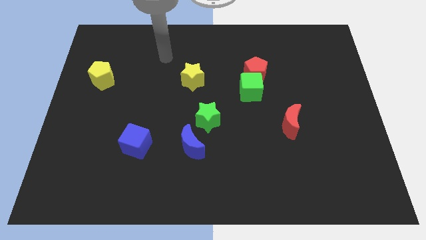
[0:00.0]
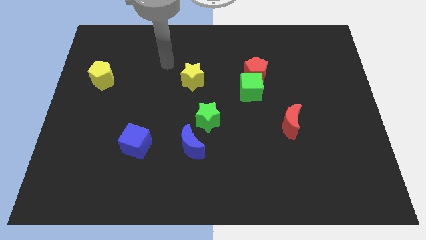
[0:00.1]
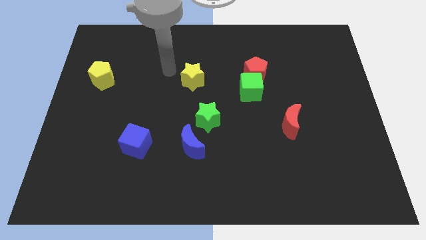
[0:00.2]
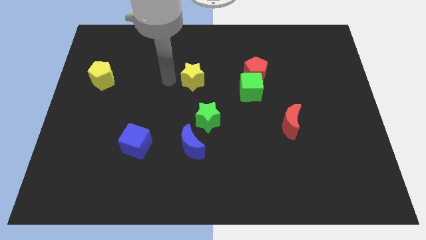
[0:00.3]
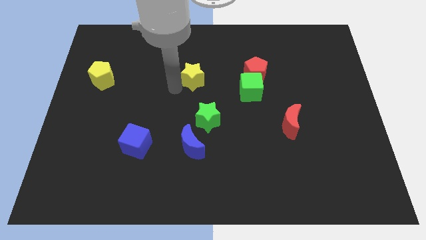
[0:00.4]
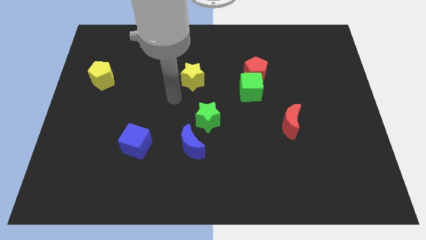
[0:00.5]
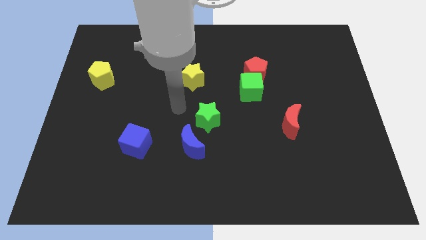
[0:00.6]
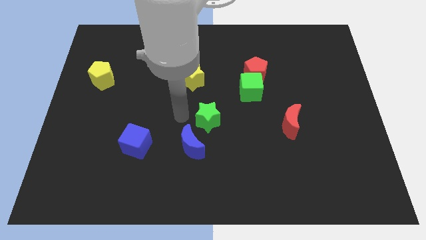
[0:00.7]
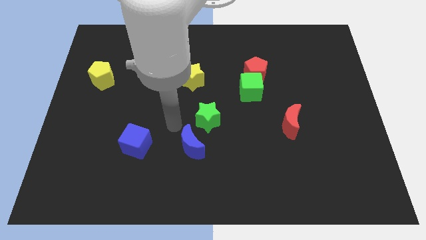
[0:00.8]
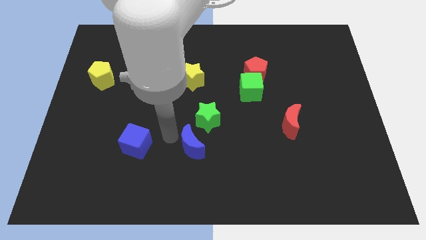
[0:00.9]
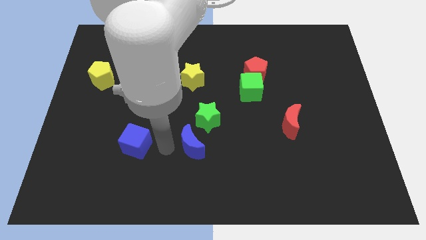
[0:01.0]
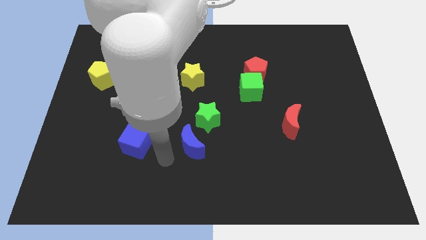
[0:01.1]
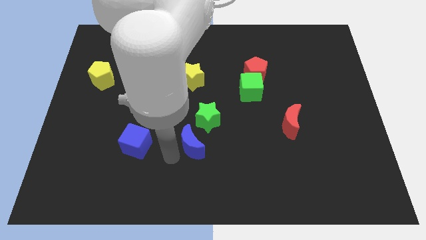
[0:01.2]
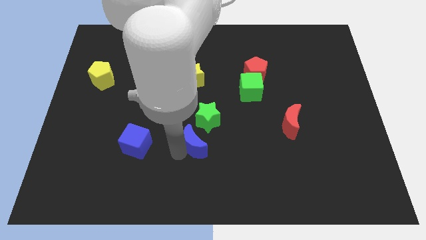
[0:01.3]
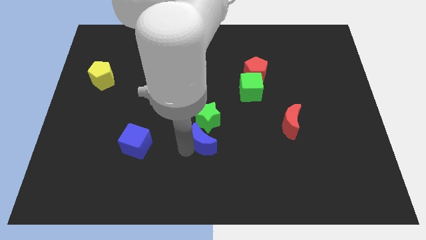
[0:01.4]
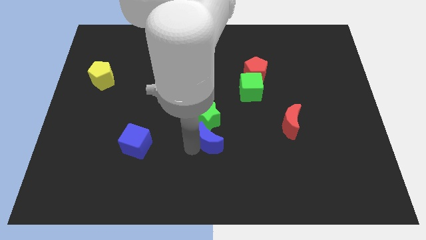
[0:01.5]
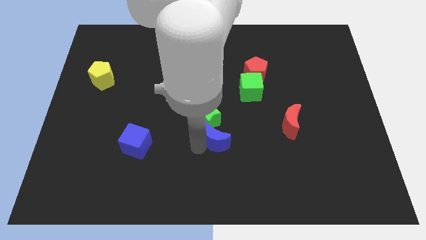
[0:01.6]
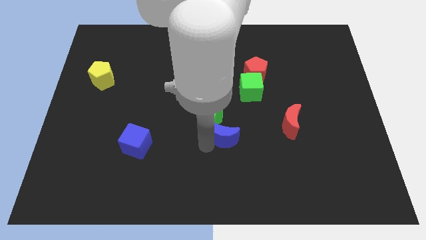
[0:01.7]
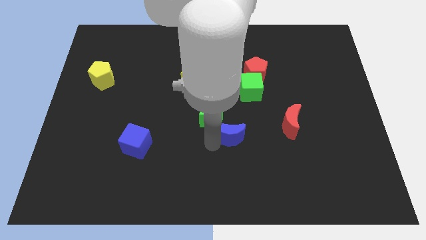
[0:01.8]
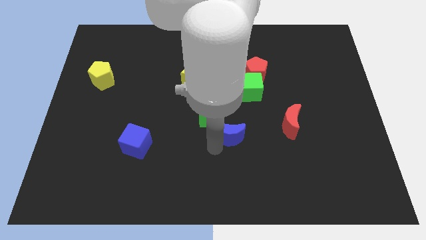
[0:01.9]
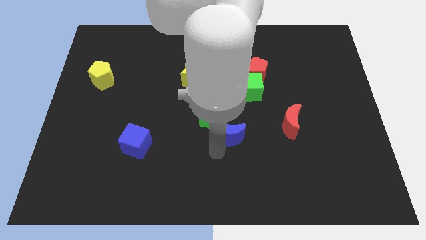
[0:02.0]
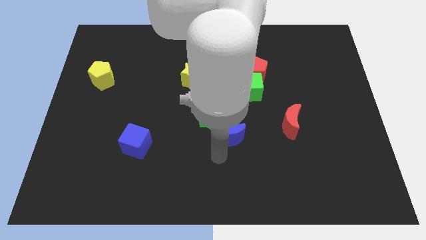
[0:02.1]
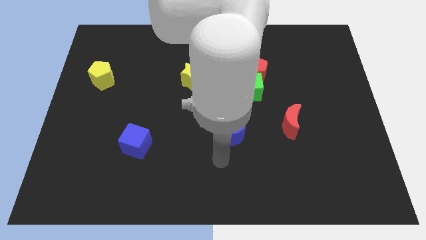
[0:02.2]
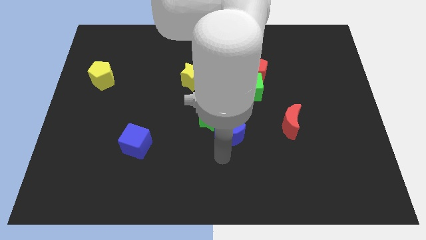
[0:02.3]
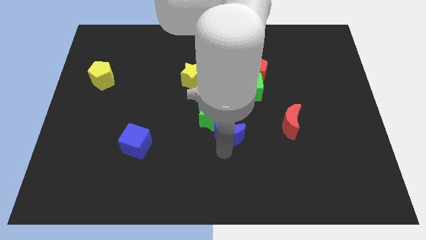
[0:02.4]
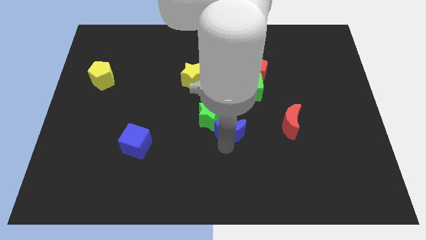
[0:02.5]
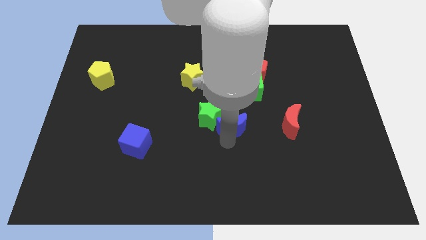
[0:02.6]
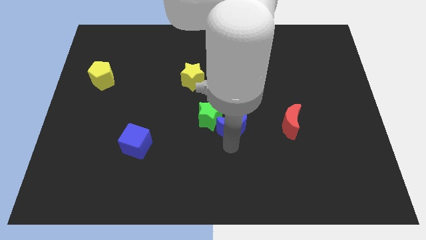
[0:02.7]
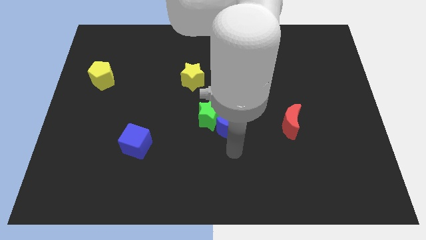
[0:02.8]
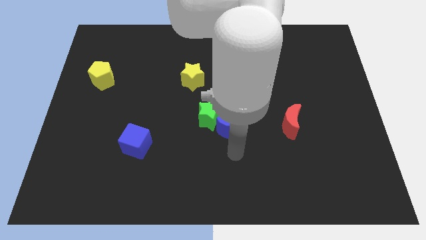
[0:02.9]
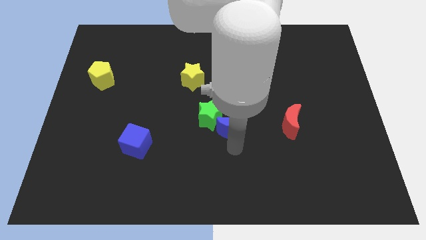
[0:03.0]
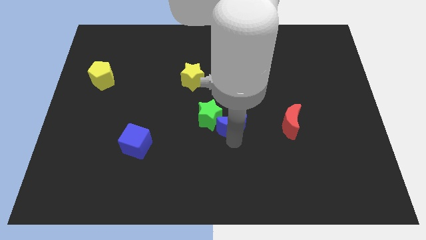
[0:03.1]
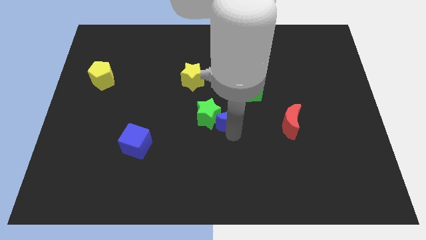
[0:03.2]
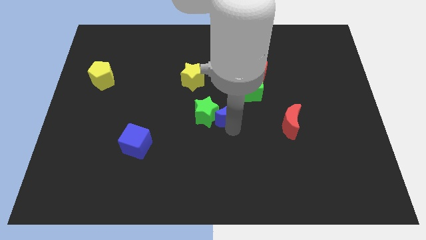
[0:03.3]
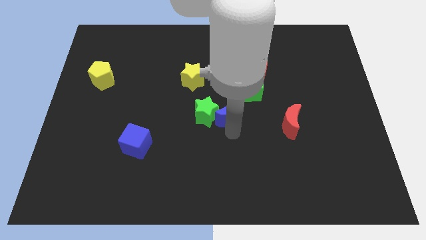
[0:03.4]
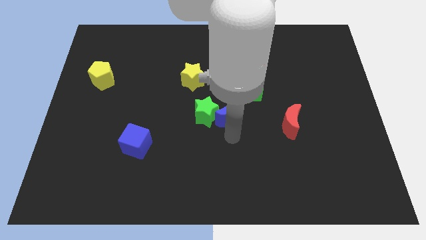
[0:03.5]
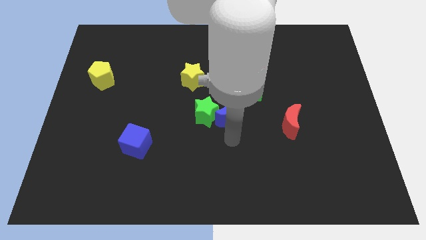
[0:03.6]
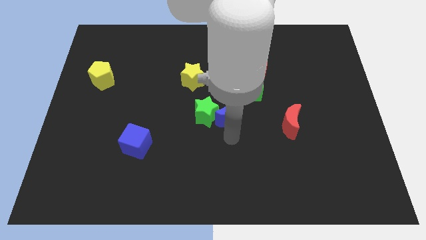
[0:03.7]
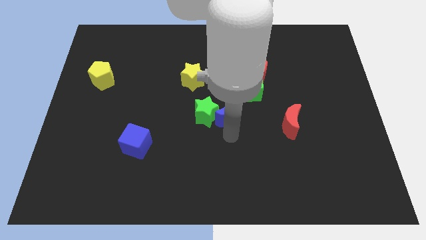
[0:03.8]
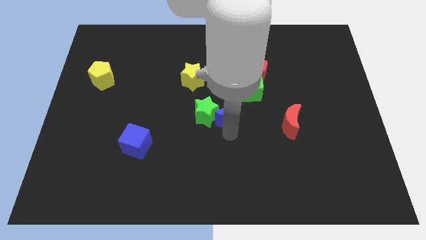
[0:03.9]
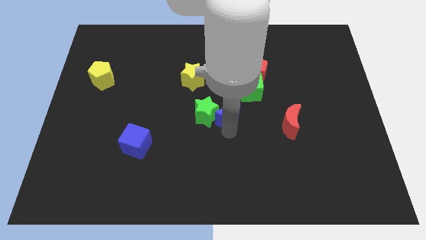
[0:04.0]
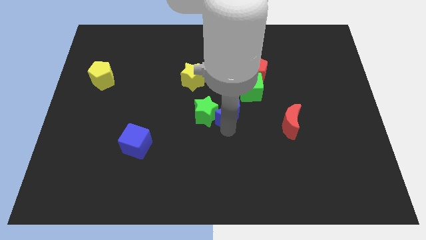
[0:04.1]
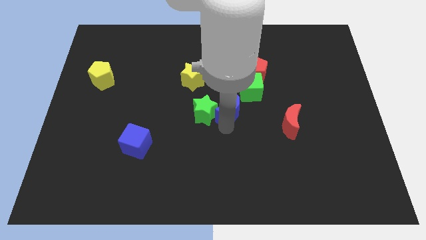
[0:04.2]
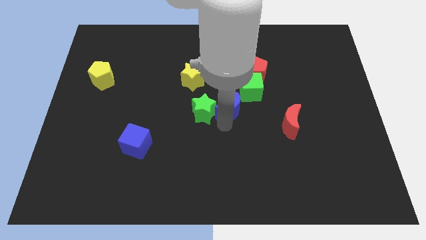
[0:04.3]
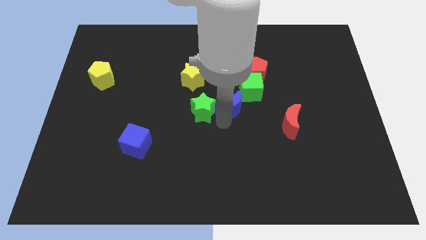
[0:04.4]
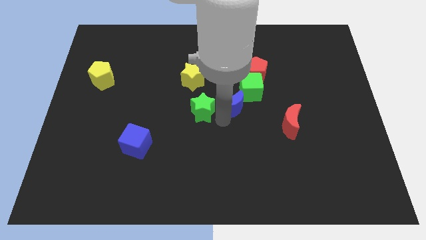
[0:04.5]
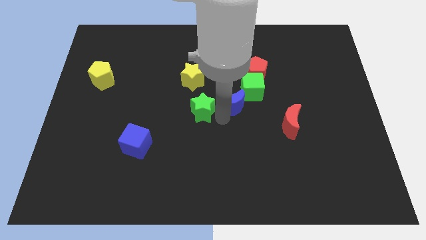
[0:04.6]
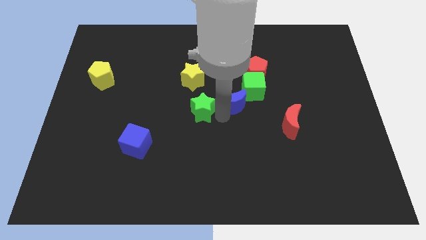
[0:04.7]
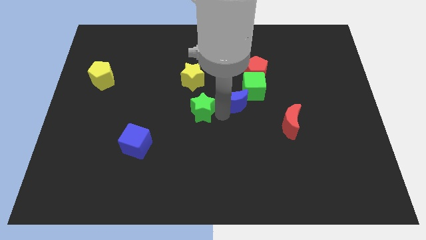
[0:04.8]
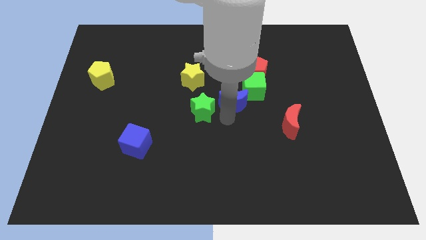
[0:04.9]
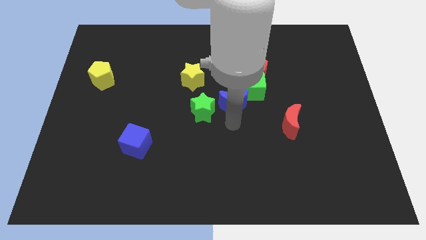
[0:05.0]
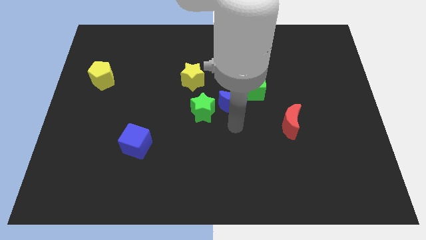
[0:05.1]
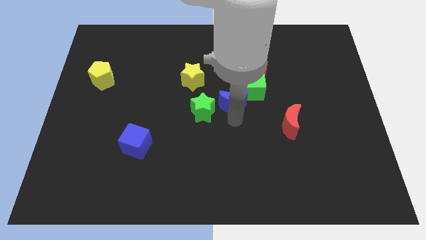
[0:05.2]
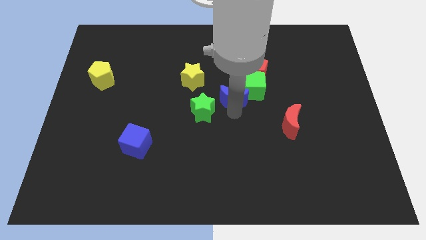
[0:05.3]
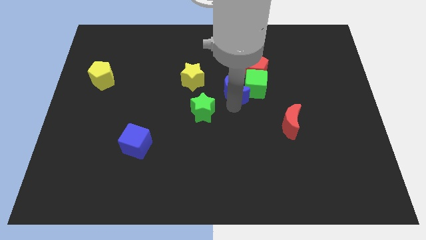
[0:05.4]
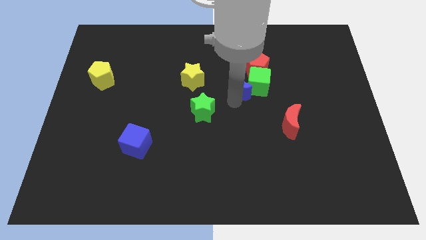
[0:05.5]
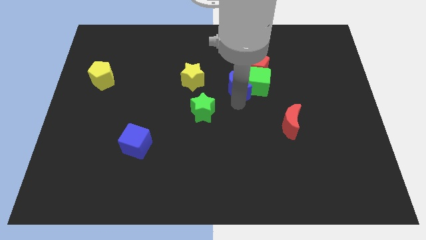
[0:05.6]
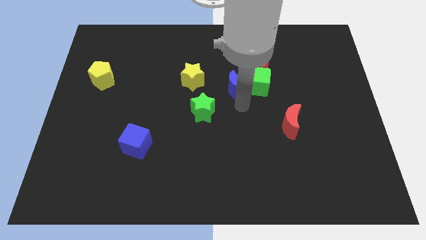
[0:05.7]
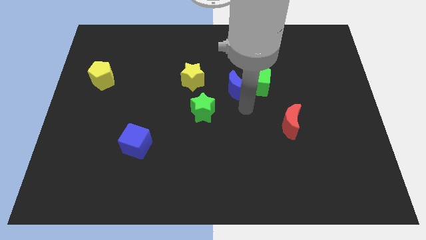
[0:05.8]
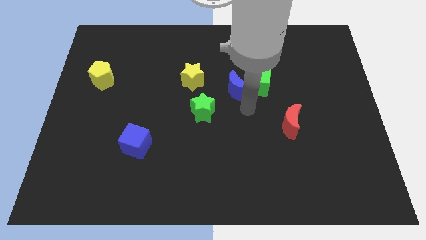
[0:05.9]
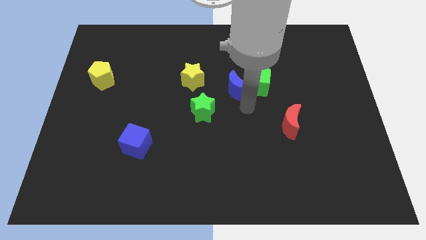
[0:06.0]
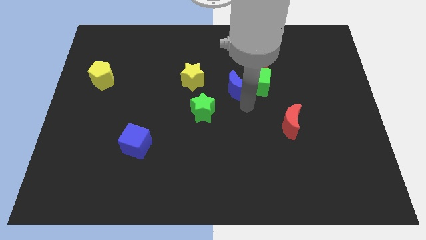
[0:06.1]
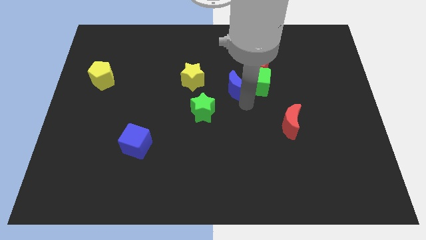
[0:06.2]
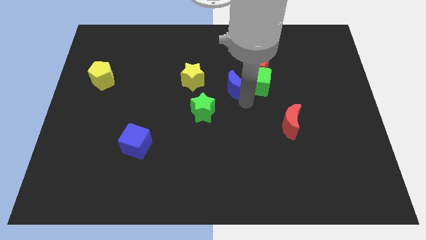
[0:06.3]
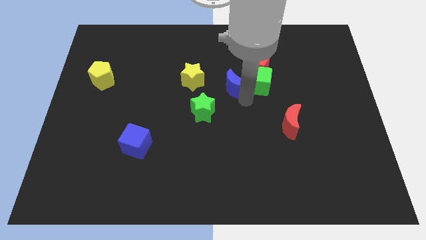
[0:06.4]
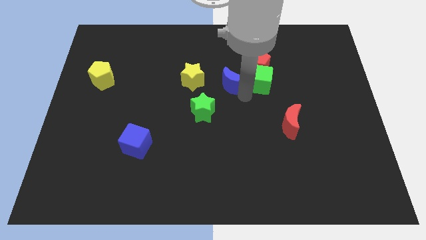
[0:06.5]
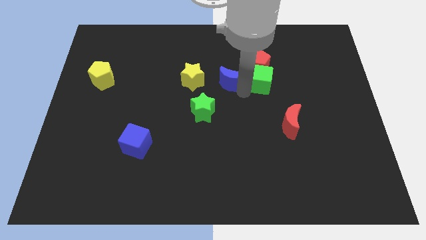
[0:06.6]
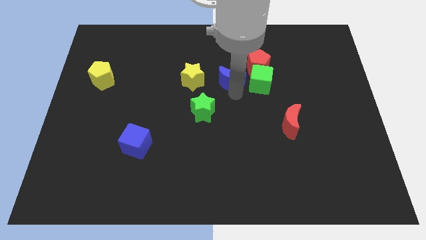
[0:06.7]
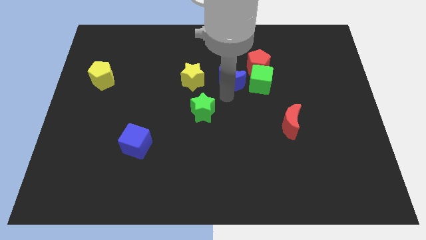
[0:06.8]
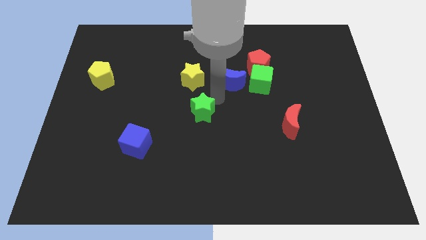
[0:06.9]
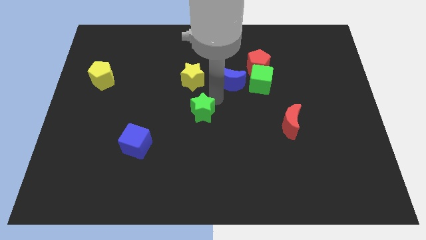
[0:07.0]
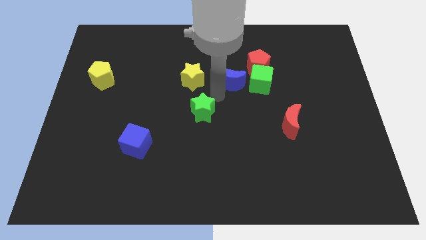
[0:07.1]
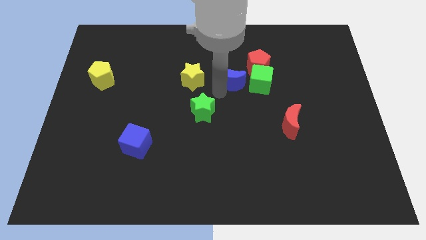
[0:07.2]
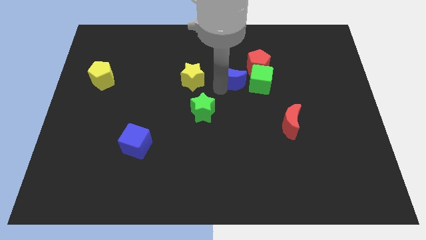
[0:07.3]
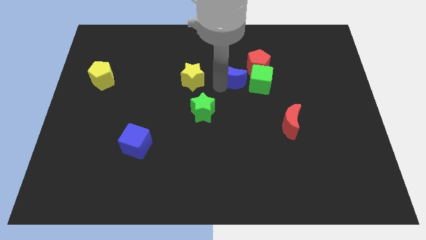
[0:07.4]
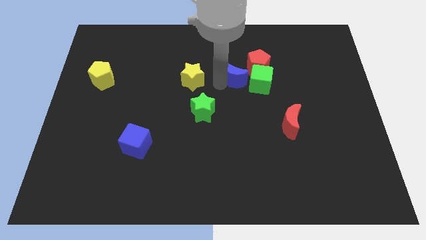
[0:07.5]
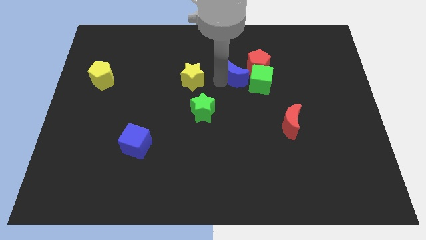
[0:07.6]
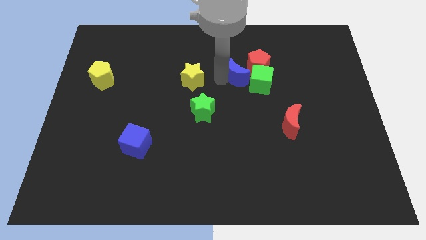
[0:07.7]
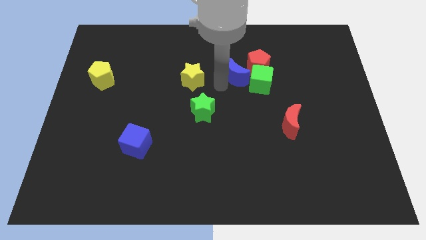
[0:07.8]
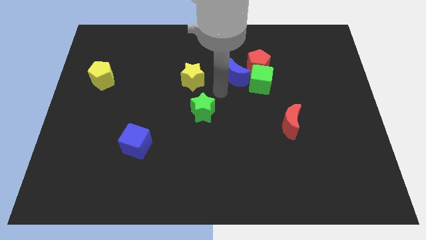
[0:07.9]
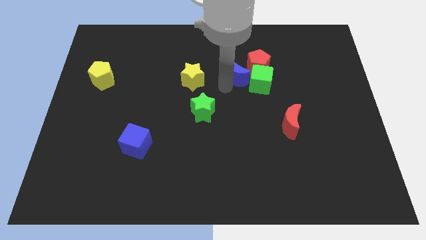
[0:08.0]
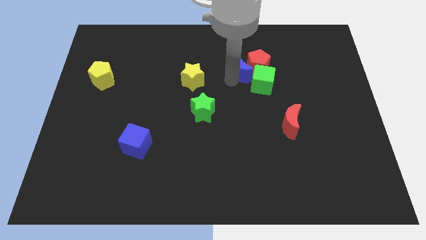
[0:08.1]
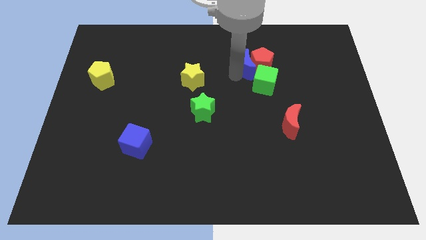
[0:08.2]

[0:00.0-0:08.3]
put the blue moon above the green cube
